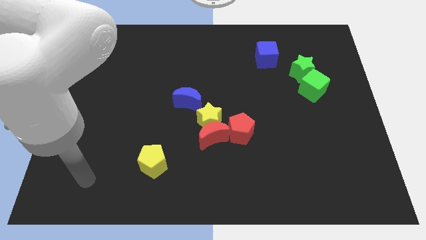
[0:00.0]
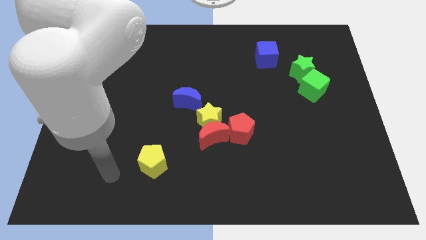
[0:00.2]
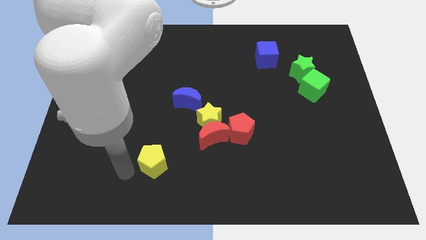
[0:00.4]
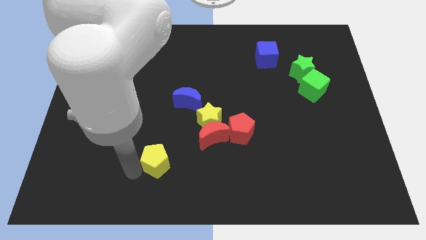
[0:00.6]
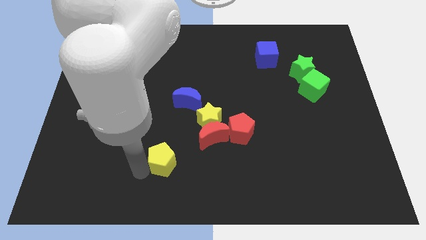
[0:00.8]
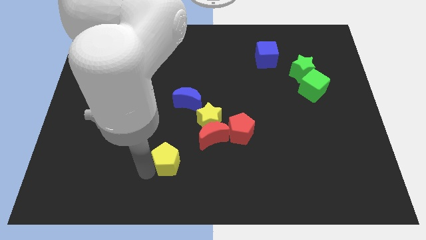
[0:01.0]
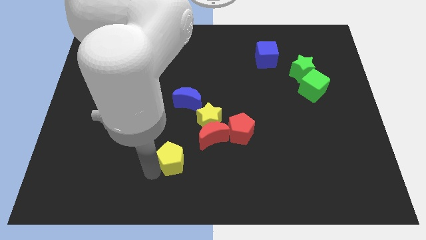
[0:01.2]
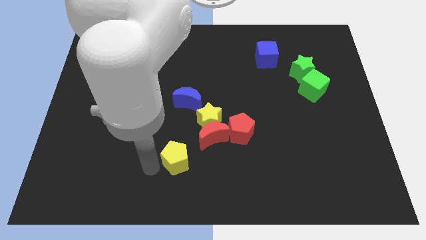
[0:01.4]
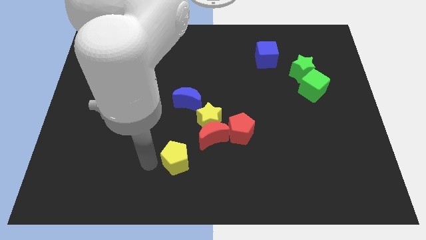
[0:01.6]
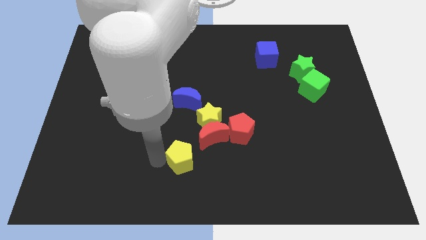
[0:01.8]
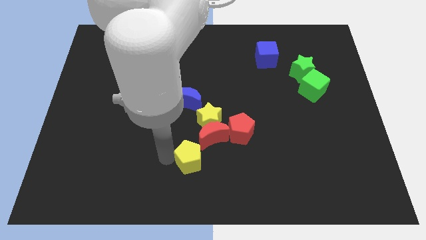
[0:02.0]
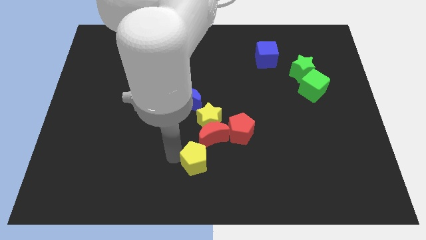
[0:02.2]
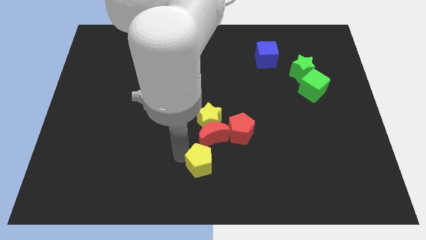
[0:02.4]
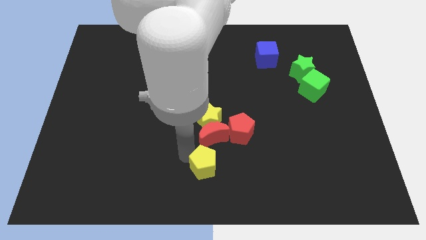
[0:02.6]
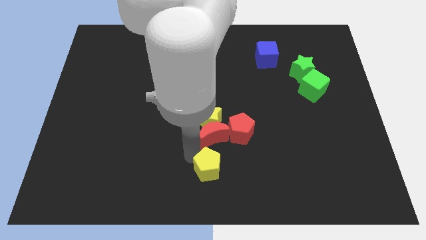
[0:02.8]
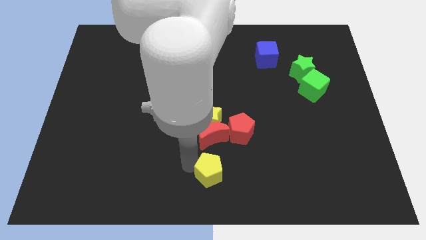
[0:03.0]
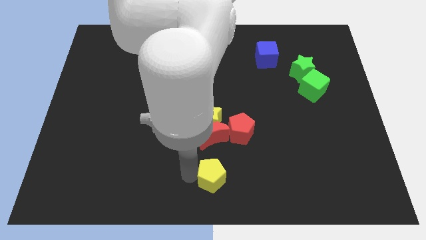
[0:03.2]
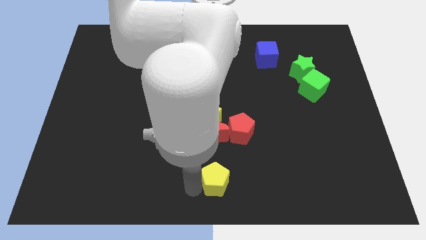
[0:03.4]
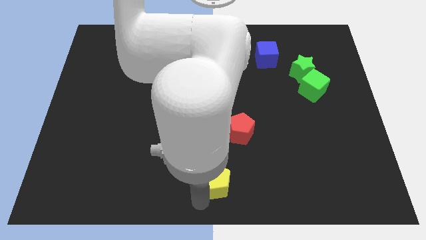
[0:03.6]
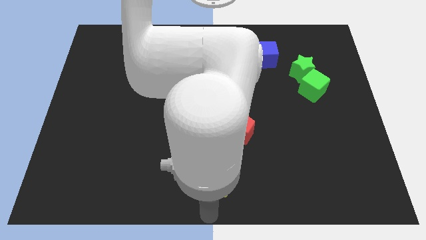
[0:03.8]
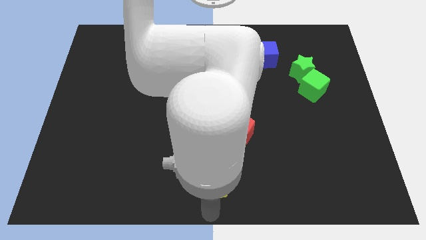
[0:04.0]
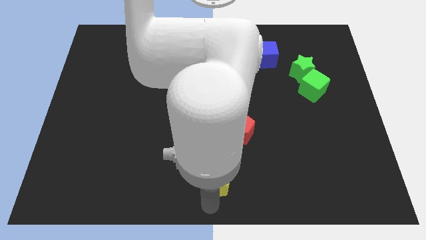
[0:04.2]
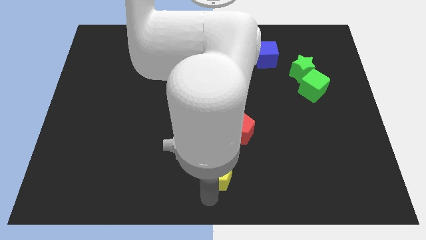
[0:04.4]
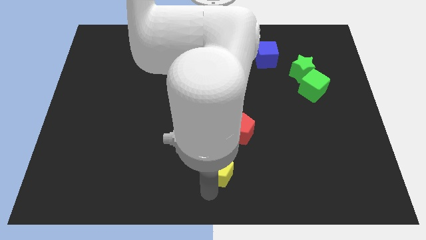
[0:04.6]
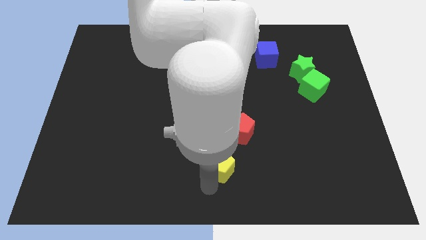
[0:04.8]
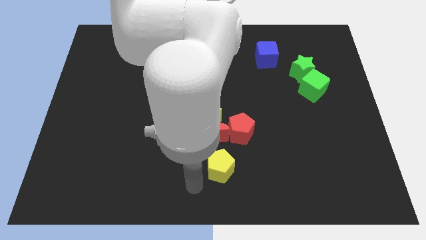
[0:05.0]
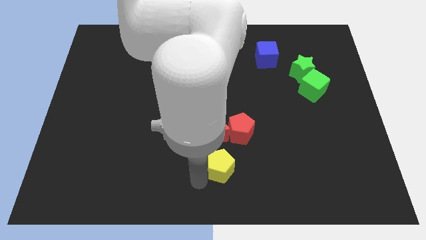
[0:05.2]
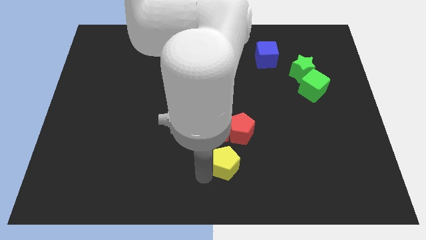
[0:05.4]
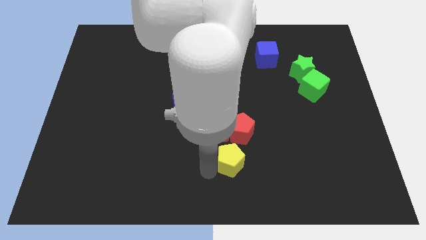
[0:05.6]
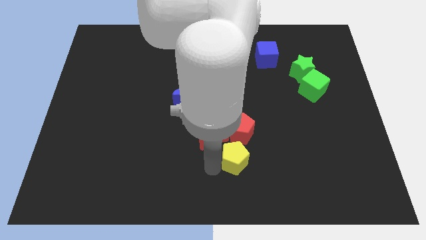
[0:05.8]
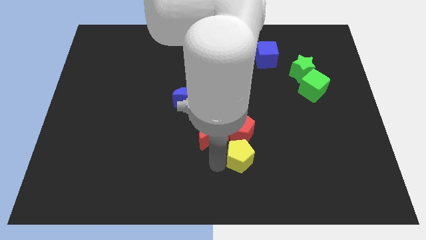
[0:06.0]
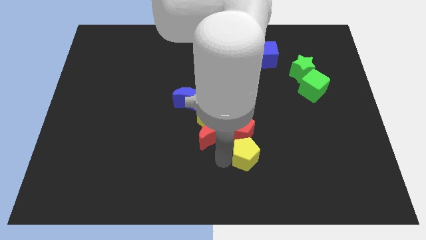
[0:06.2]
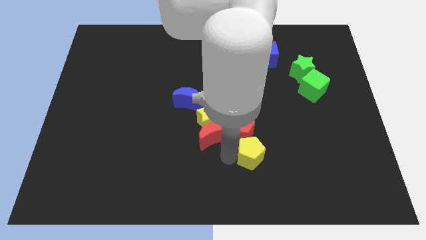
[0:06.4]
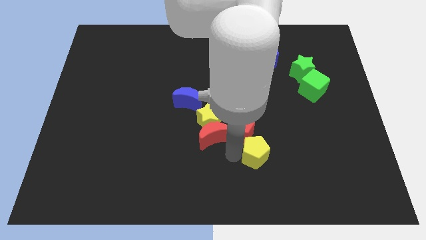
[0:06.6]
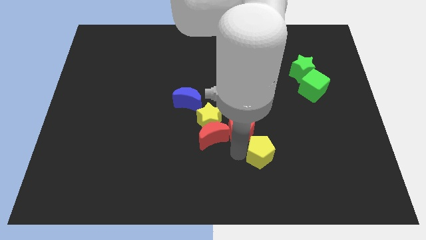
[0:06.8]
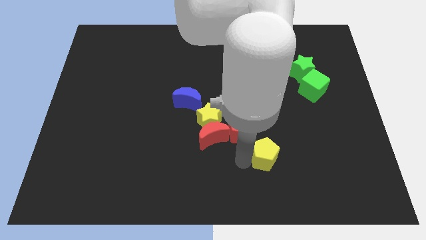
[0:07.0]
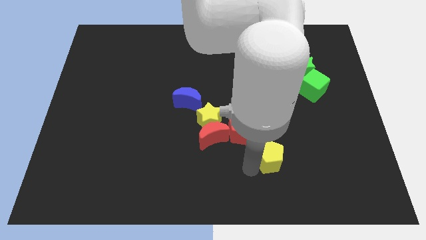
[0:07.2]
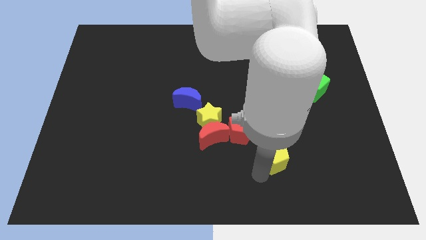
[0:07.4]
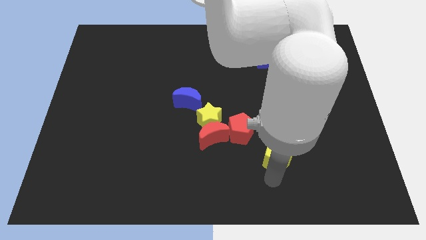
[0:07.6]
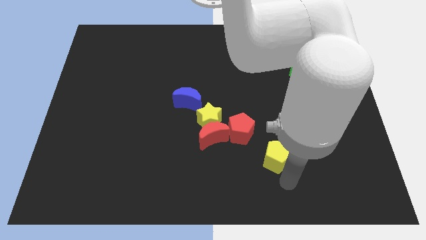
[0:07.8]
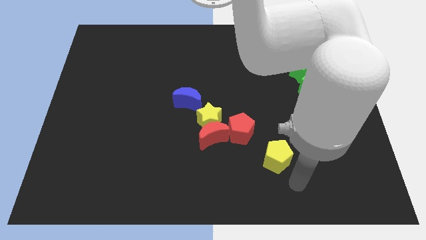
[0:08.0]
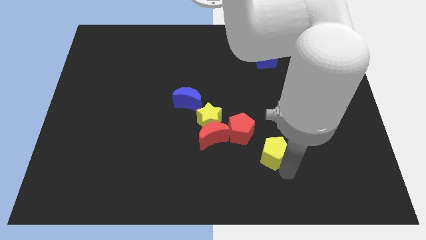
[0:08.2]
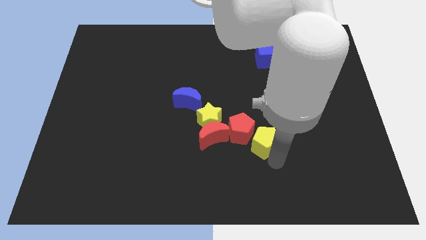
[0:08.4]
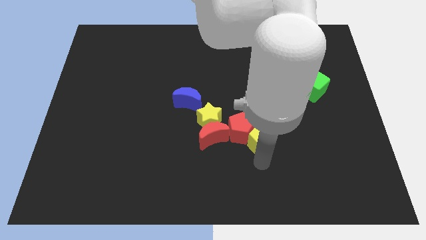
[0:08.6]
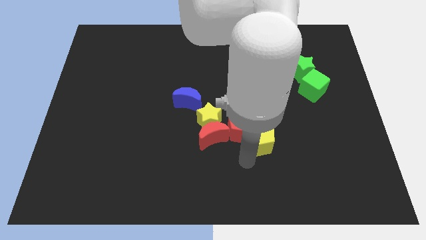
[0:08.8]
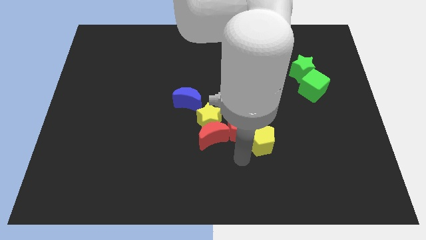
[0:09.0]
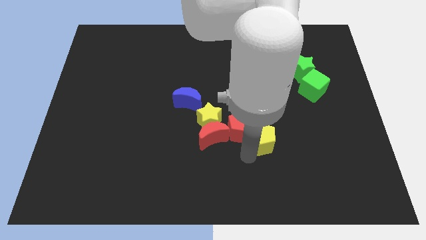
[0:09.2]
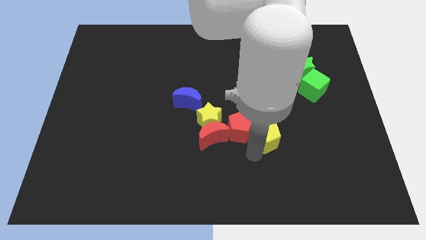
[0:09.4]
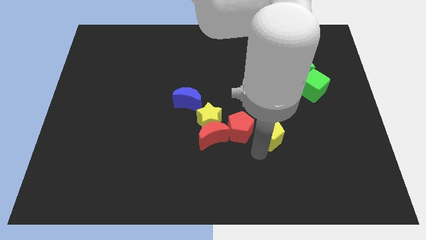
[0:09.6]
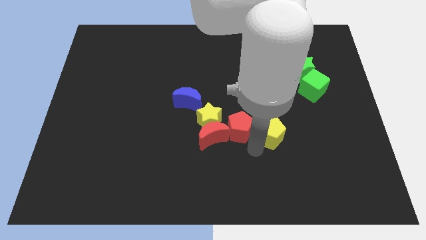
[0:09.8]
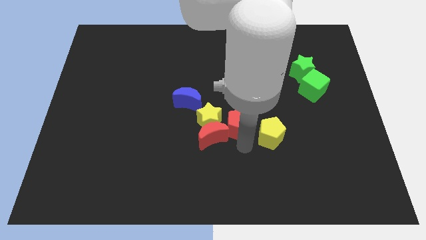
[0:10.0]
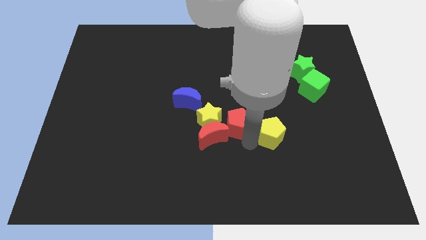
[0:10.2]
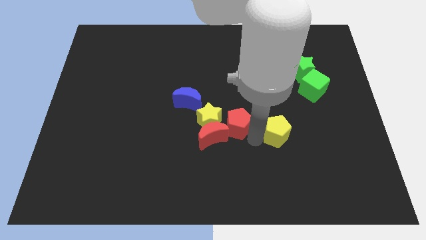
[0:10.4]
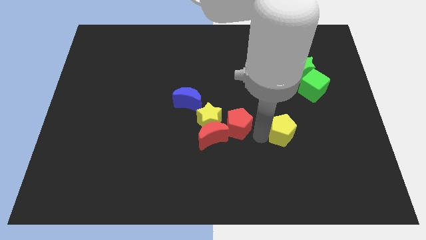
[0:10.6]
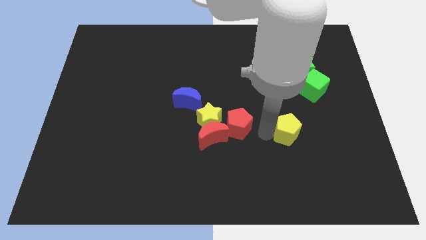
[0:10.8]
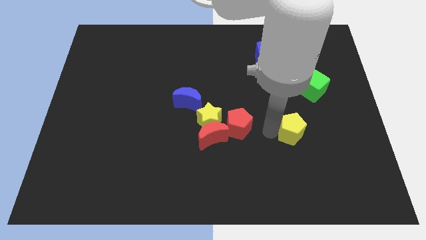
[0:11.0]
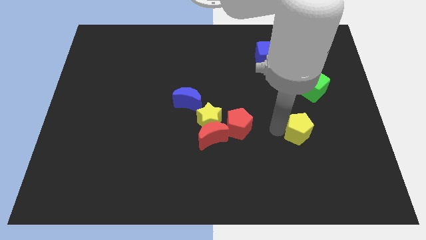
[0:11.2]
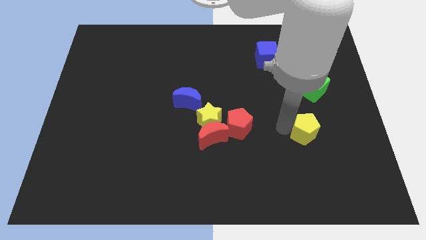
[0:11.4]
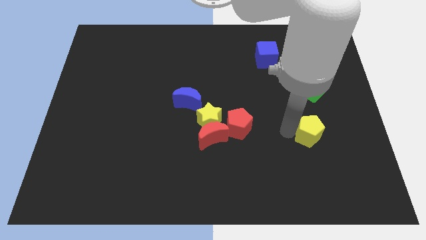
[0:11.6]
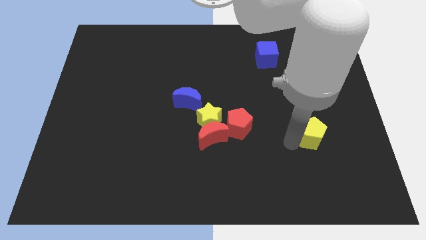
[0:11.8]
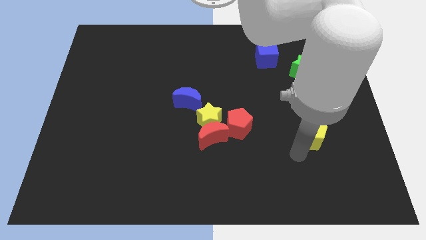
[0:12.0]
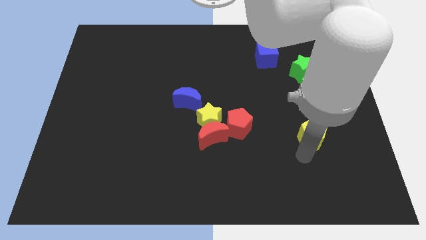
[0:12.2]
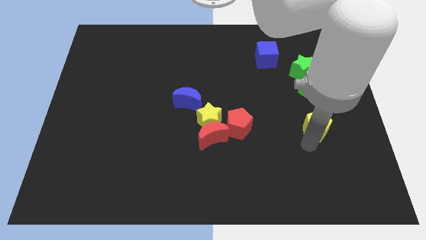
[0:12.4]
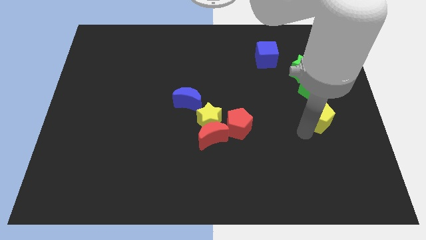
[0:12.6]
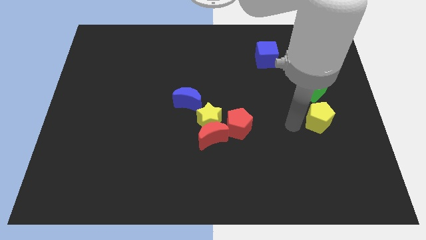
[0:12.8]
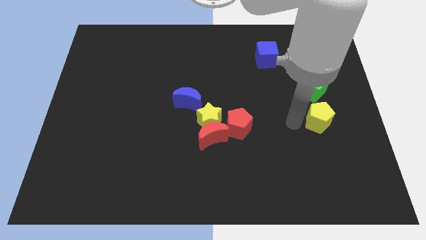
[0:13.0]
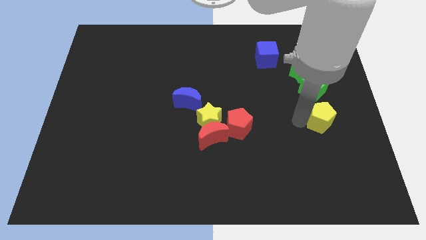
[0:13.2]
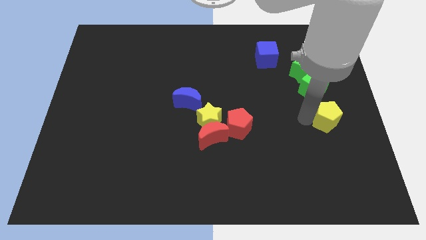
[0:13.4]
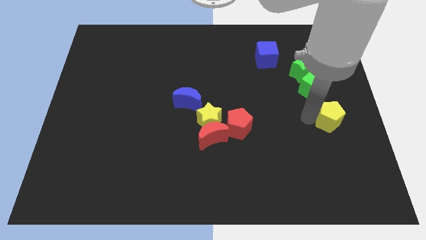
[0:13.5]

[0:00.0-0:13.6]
slide the yellow pentagon to the right side

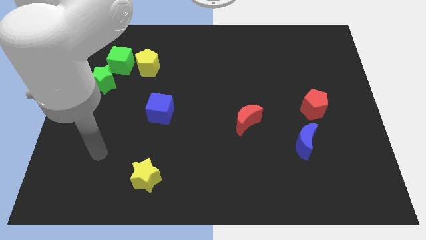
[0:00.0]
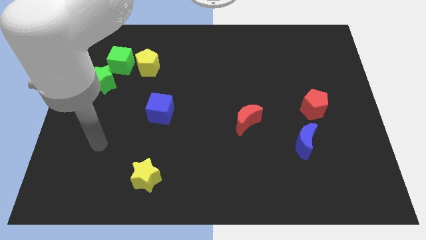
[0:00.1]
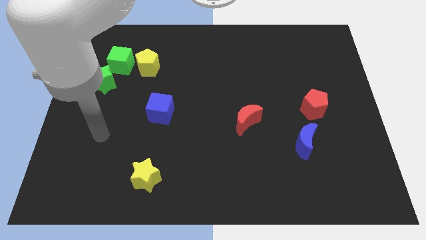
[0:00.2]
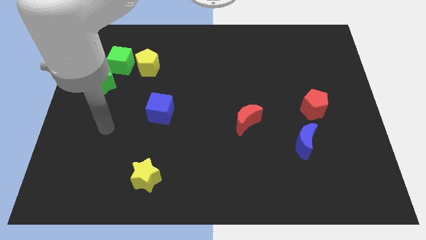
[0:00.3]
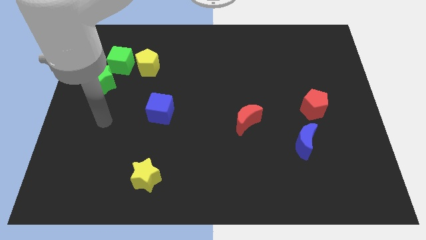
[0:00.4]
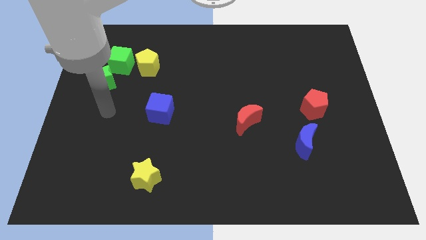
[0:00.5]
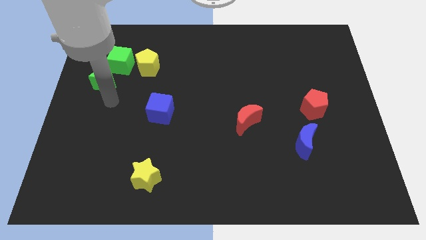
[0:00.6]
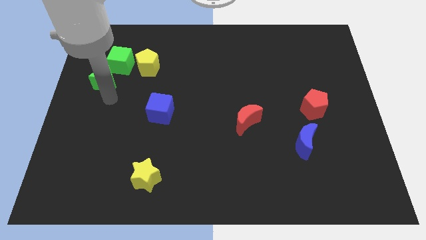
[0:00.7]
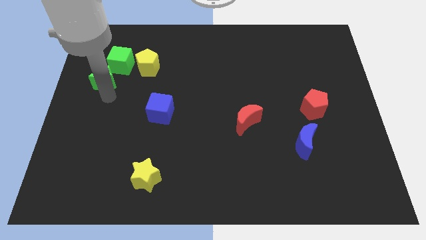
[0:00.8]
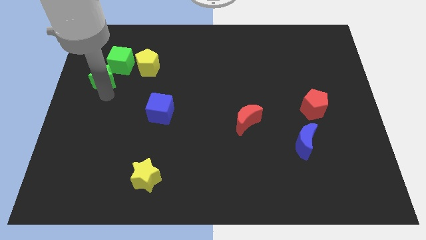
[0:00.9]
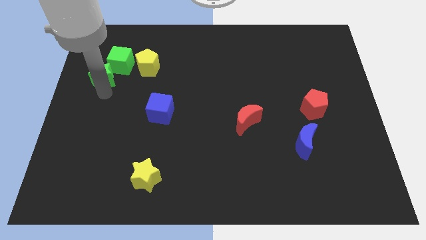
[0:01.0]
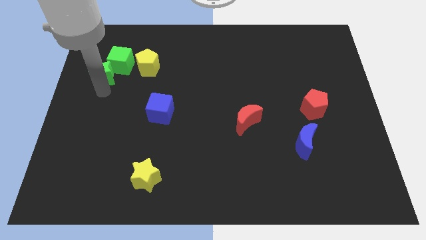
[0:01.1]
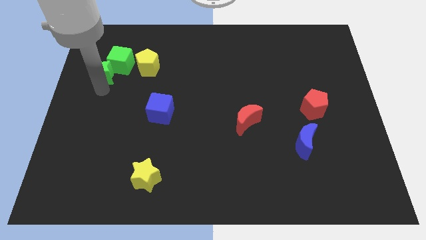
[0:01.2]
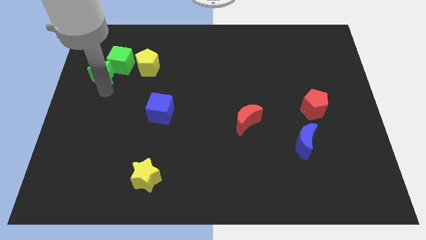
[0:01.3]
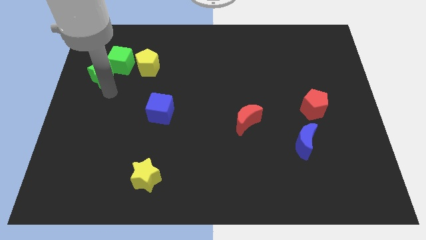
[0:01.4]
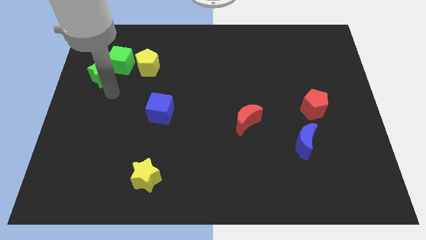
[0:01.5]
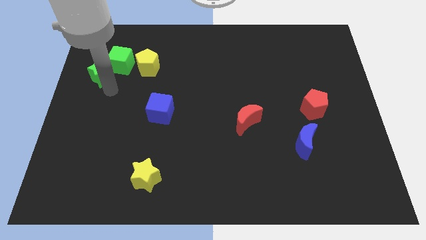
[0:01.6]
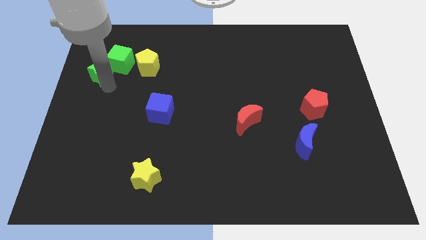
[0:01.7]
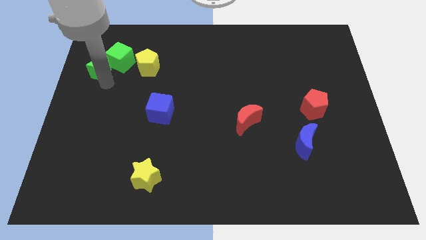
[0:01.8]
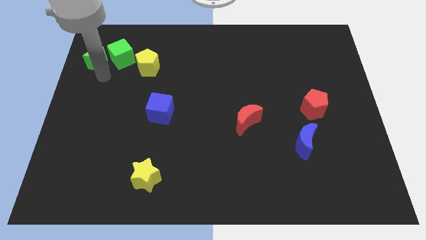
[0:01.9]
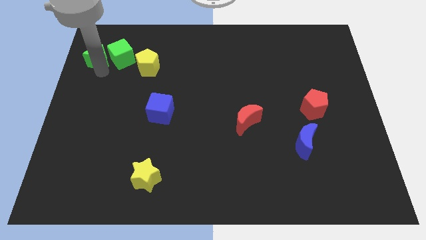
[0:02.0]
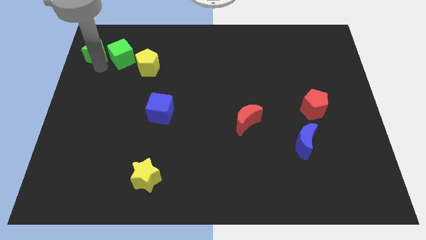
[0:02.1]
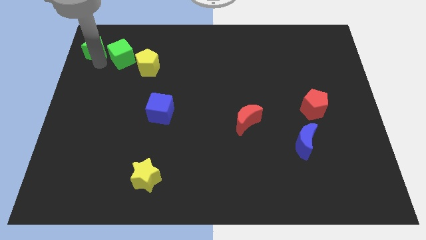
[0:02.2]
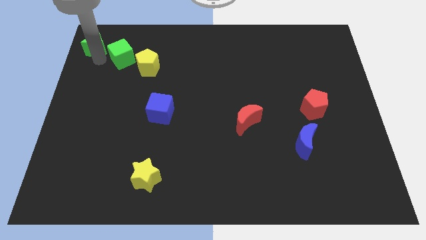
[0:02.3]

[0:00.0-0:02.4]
put the green star to the top left of the board
